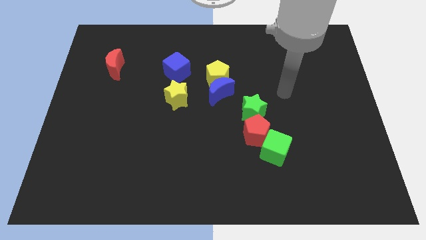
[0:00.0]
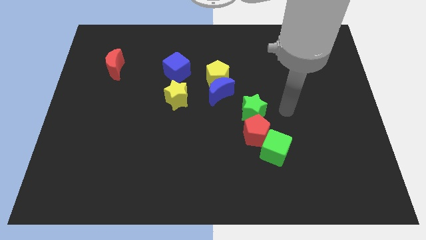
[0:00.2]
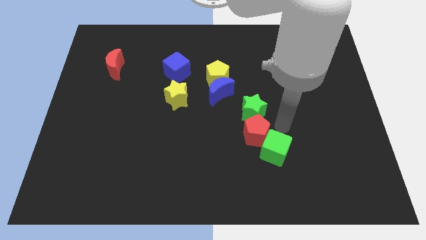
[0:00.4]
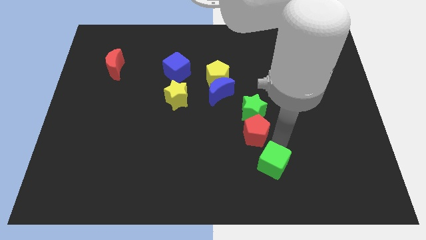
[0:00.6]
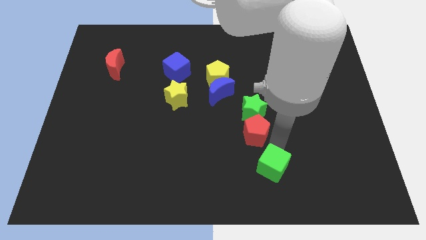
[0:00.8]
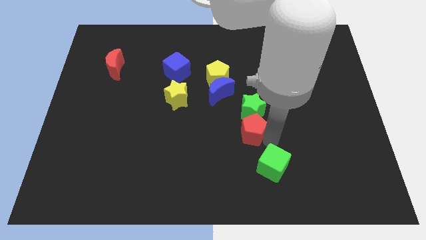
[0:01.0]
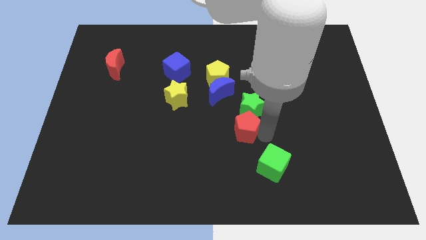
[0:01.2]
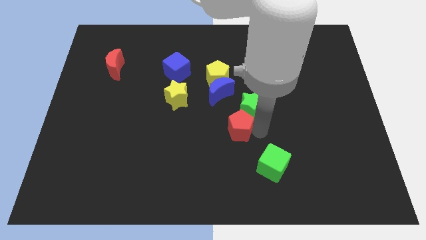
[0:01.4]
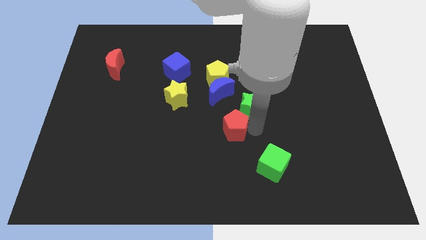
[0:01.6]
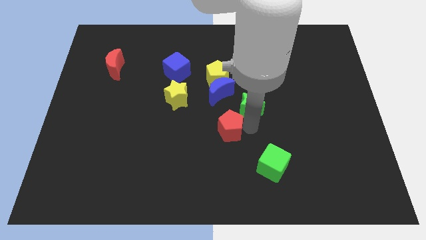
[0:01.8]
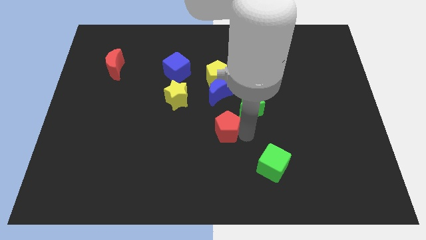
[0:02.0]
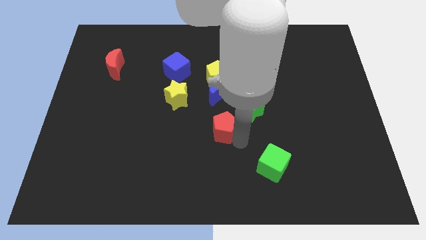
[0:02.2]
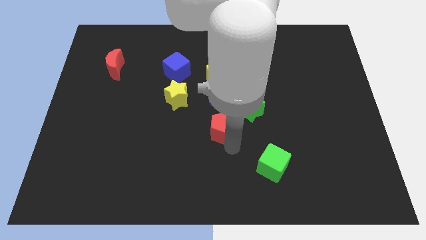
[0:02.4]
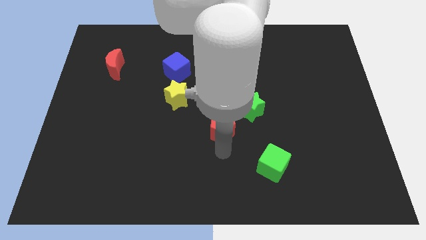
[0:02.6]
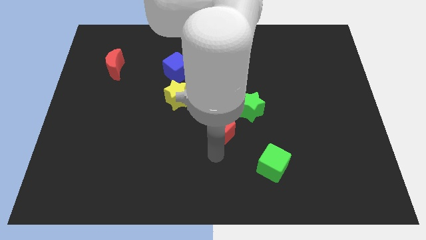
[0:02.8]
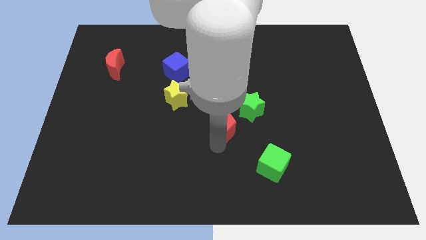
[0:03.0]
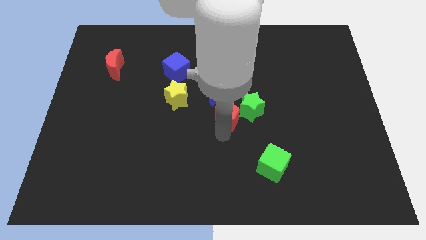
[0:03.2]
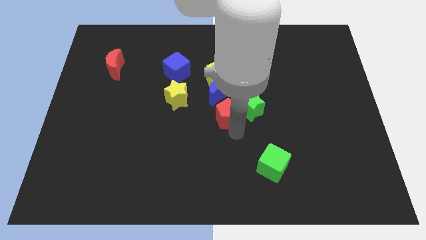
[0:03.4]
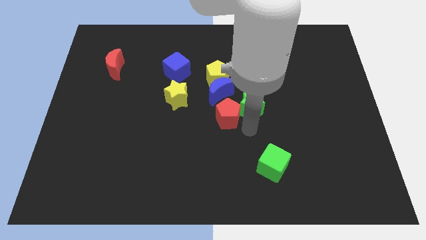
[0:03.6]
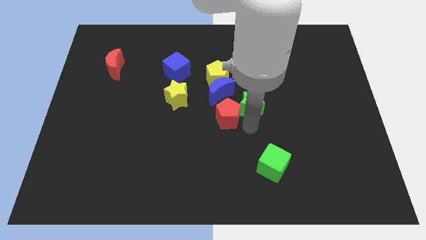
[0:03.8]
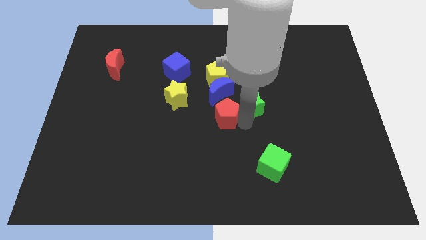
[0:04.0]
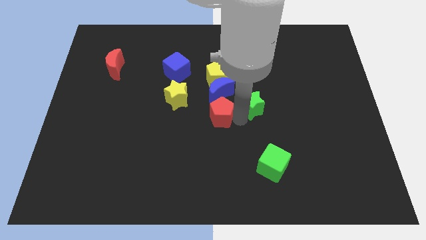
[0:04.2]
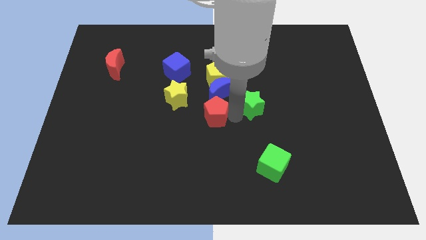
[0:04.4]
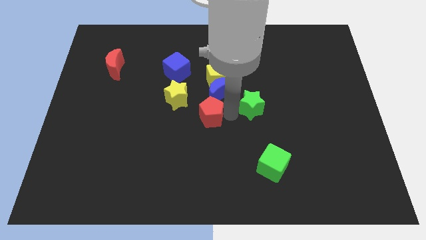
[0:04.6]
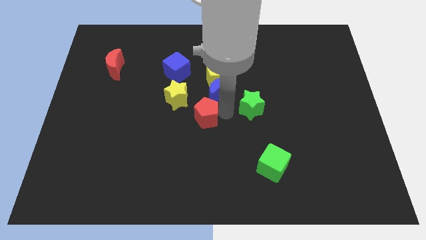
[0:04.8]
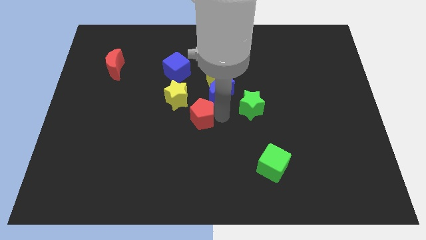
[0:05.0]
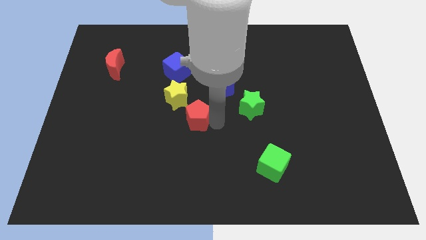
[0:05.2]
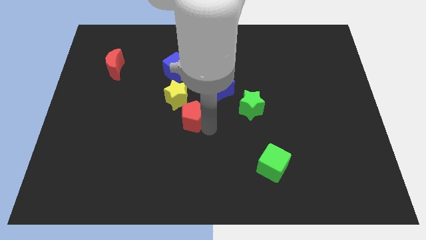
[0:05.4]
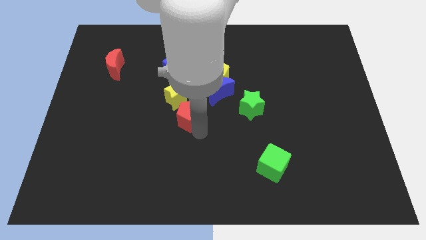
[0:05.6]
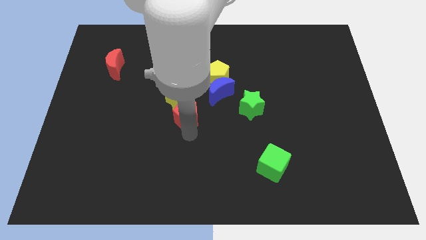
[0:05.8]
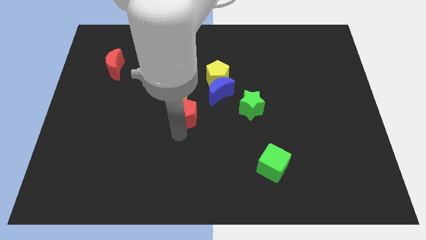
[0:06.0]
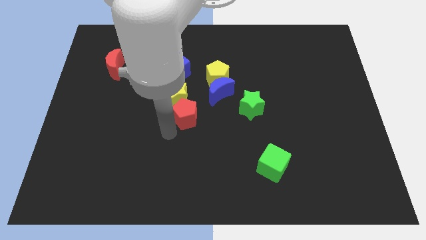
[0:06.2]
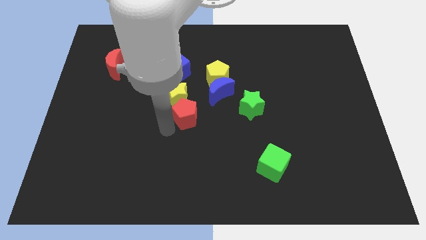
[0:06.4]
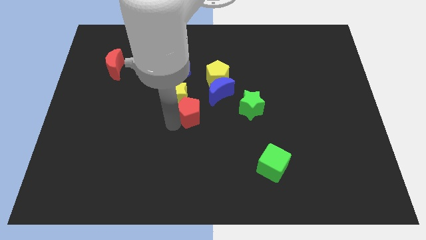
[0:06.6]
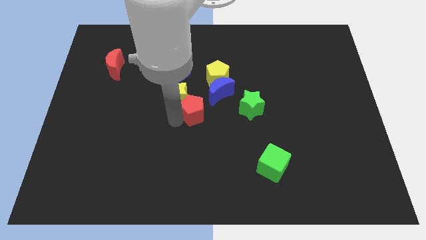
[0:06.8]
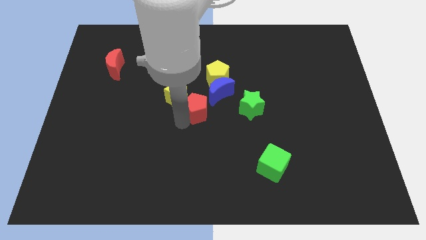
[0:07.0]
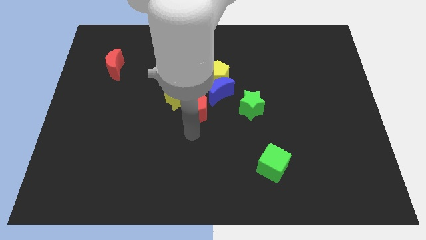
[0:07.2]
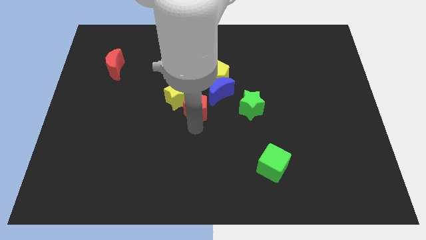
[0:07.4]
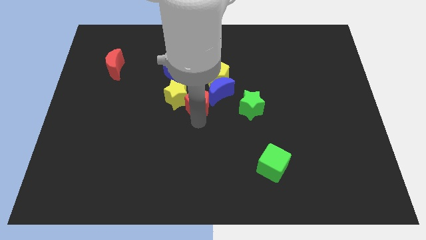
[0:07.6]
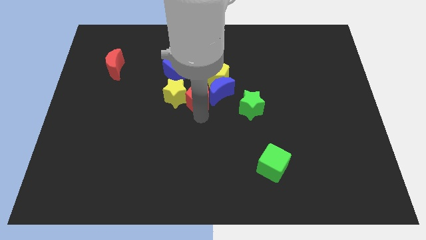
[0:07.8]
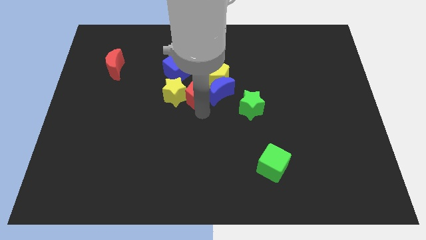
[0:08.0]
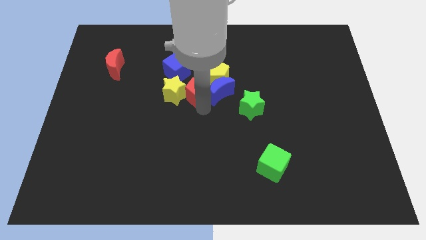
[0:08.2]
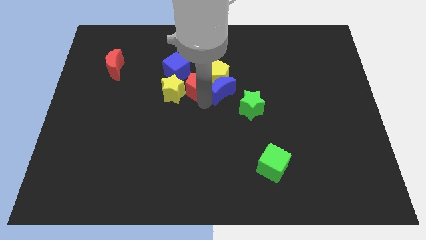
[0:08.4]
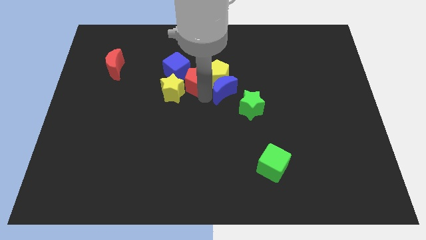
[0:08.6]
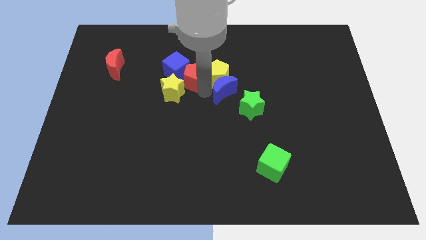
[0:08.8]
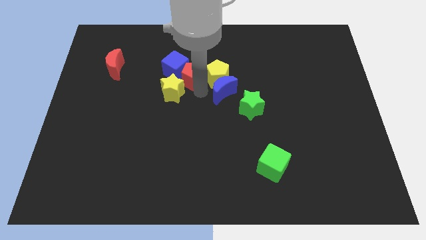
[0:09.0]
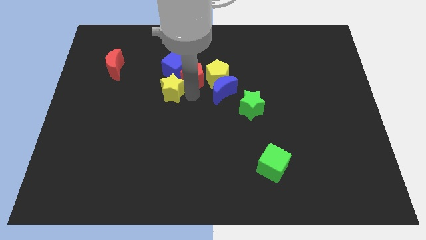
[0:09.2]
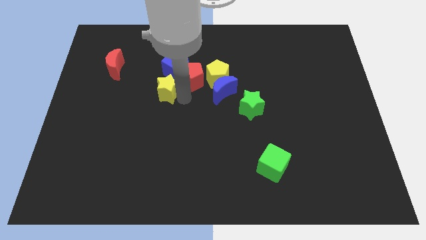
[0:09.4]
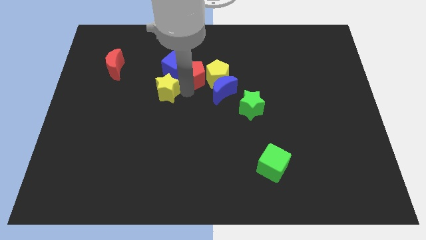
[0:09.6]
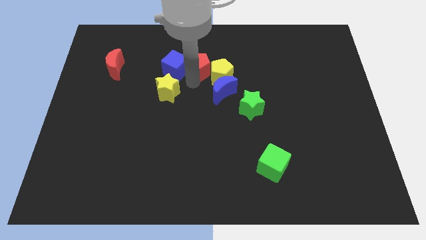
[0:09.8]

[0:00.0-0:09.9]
slide the red pentagon to the top right of the blue cube

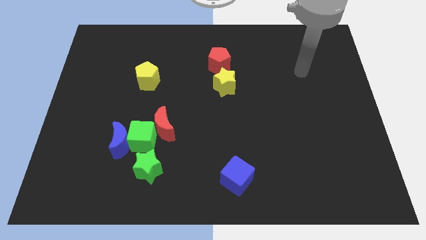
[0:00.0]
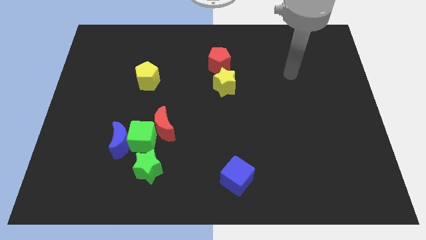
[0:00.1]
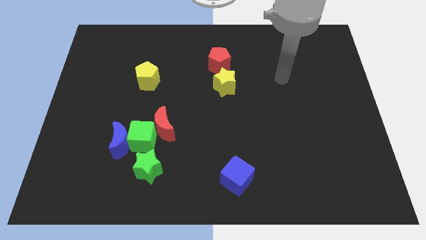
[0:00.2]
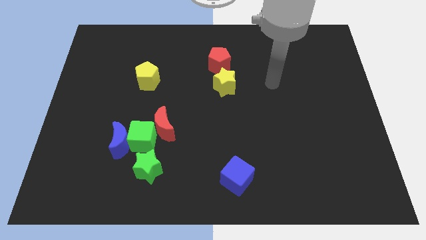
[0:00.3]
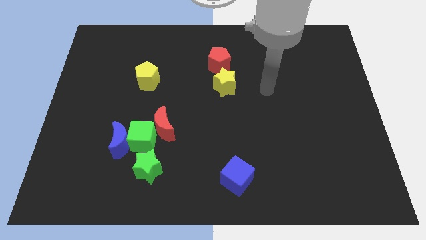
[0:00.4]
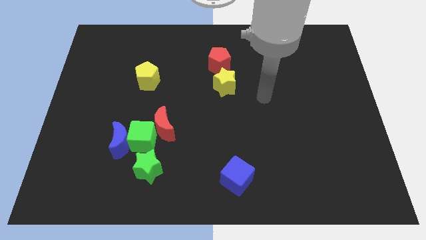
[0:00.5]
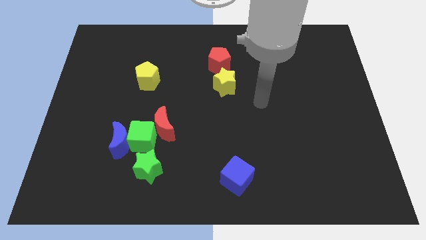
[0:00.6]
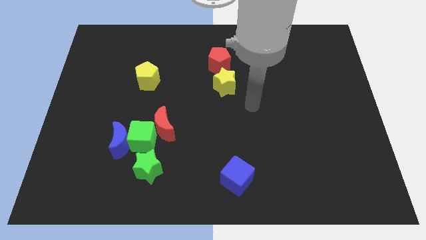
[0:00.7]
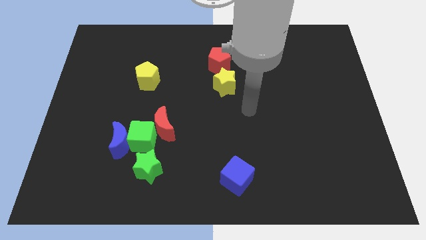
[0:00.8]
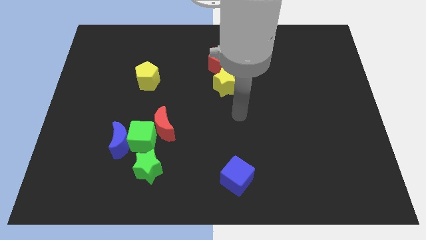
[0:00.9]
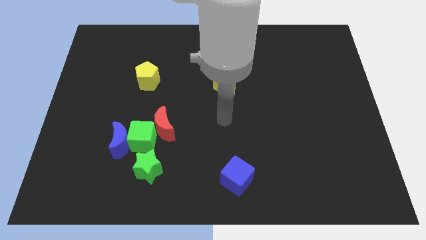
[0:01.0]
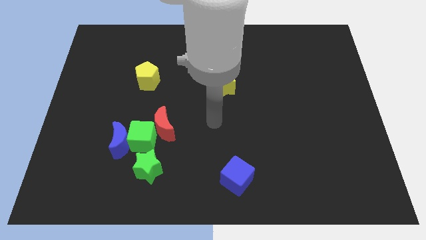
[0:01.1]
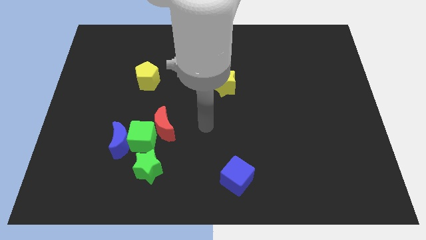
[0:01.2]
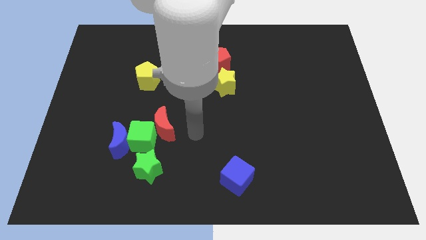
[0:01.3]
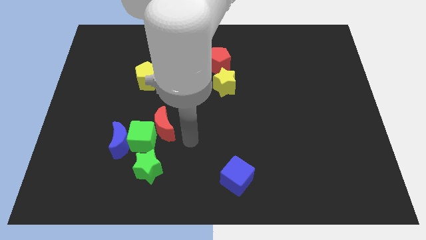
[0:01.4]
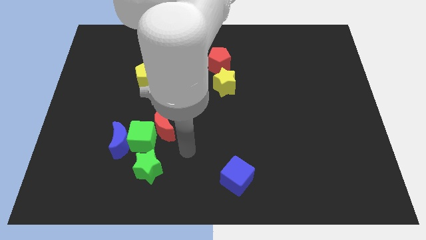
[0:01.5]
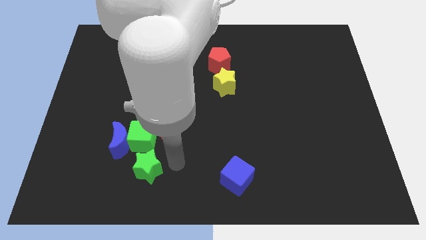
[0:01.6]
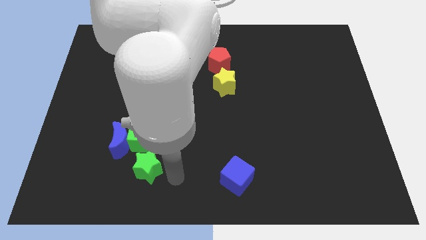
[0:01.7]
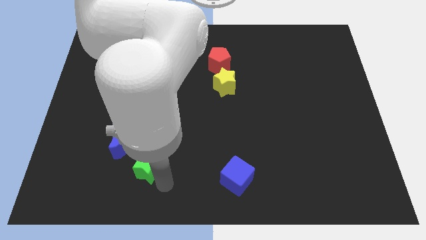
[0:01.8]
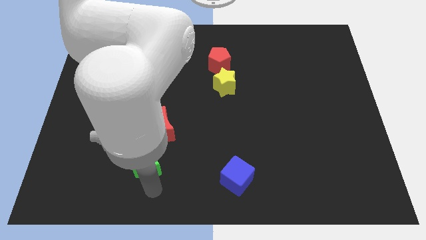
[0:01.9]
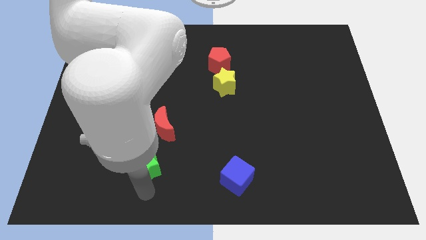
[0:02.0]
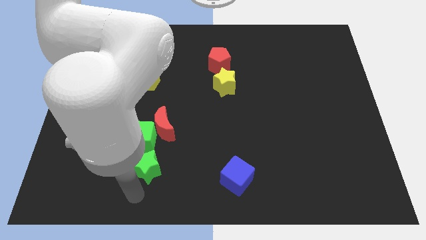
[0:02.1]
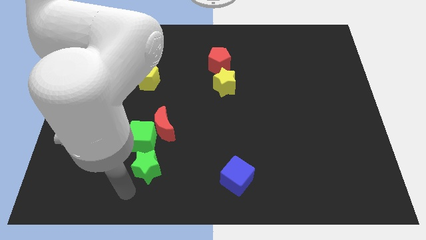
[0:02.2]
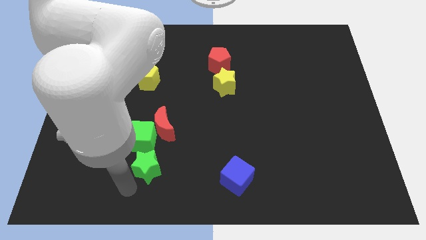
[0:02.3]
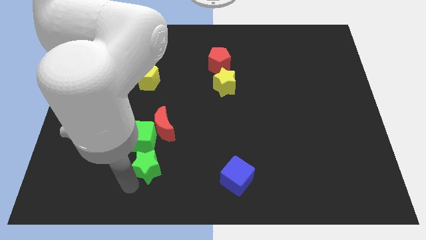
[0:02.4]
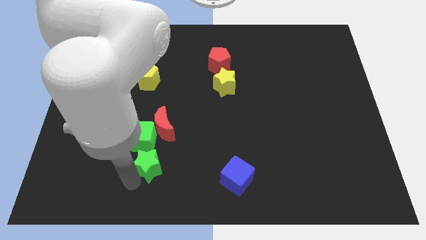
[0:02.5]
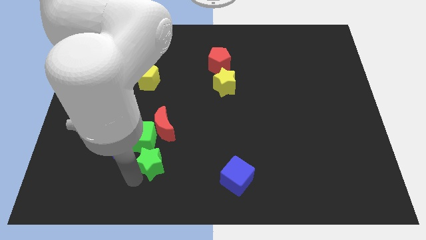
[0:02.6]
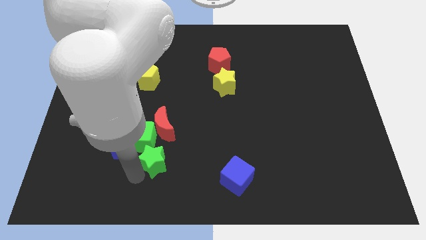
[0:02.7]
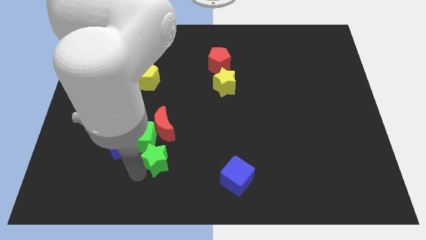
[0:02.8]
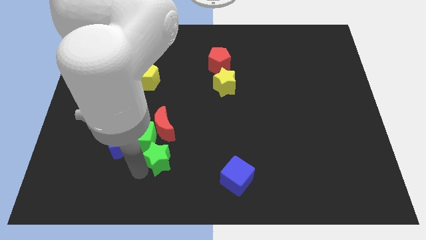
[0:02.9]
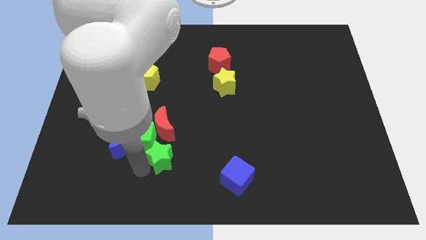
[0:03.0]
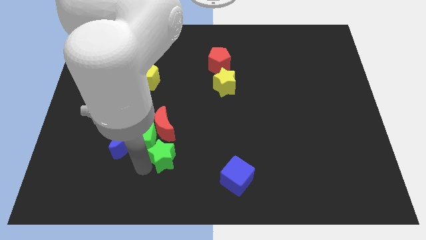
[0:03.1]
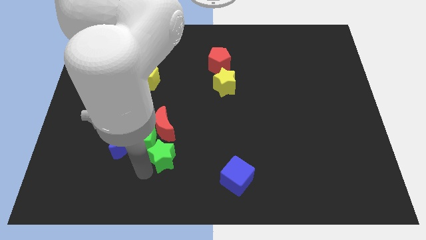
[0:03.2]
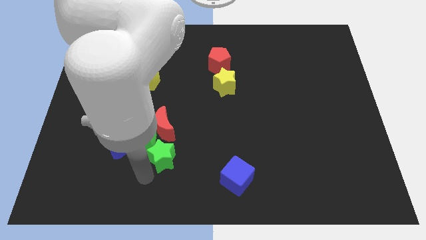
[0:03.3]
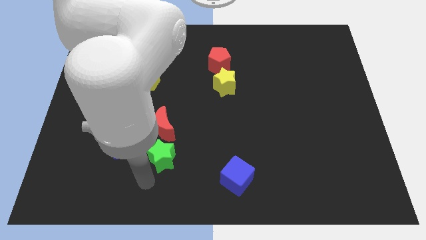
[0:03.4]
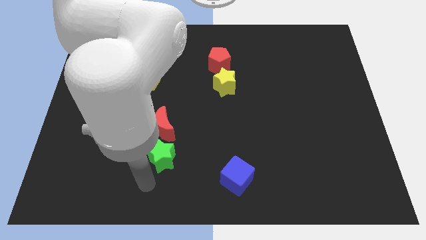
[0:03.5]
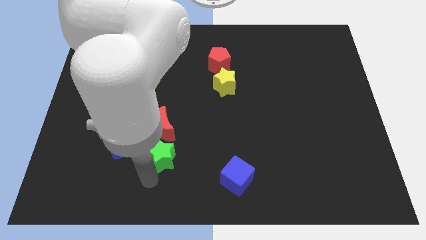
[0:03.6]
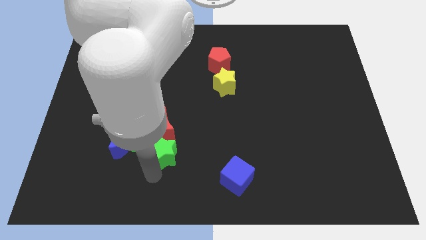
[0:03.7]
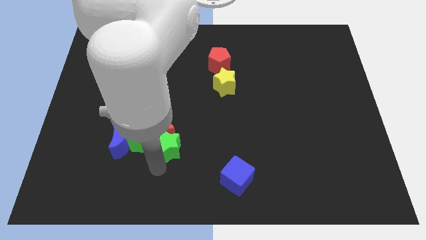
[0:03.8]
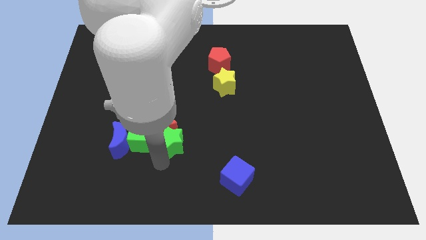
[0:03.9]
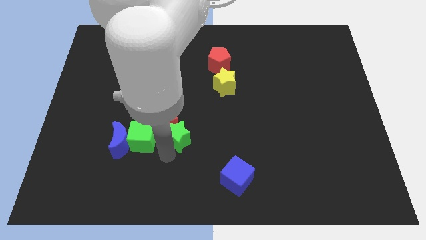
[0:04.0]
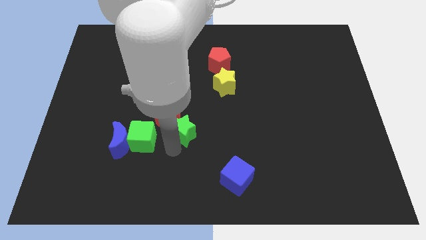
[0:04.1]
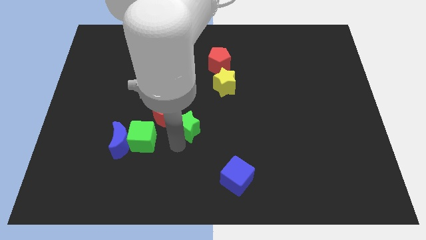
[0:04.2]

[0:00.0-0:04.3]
put the green star to the top right side of the green cube
